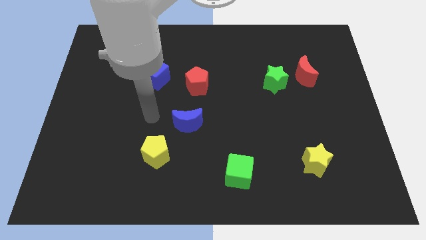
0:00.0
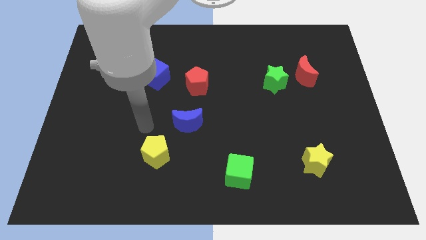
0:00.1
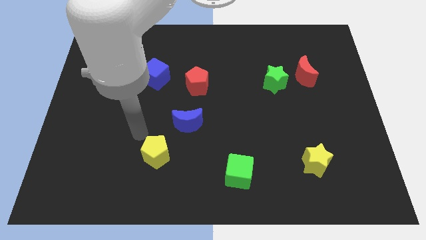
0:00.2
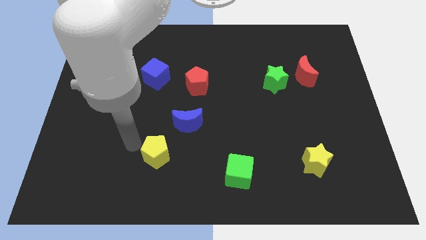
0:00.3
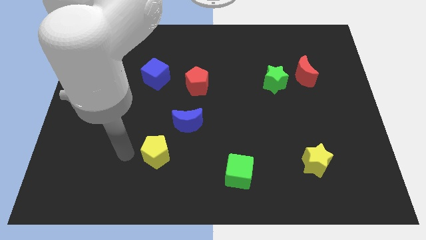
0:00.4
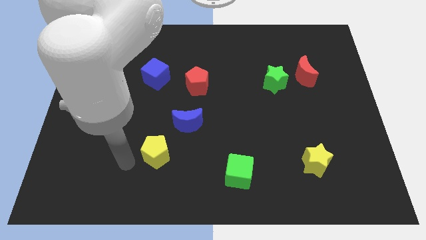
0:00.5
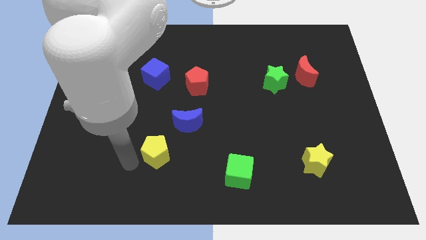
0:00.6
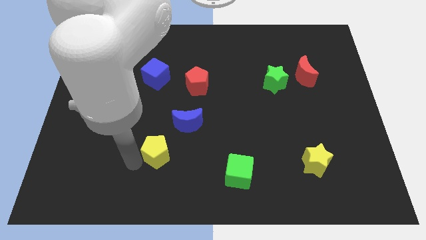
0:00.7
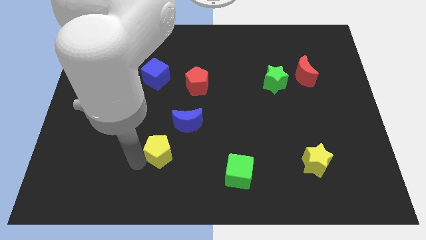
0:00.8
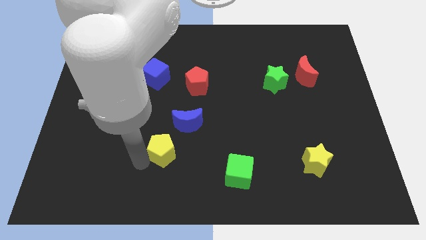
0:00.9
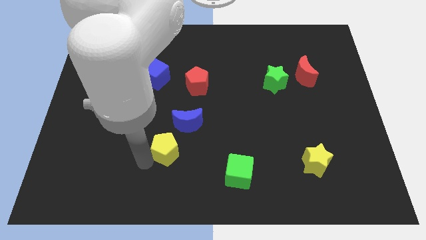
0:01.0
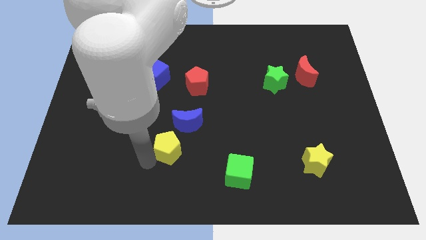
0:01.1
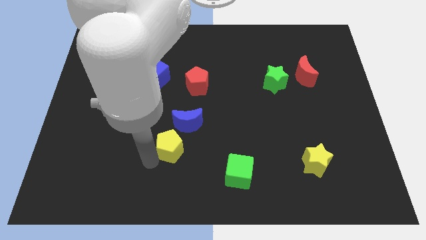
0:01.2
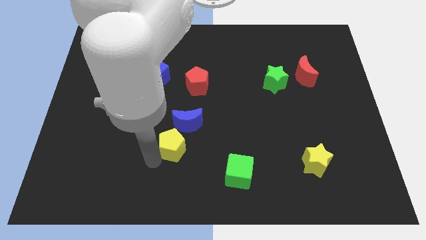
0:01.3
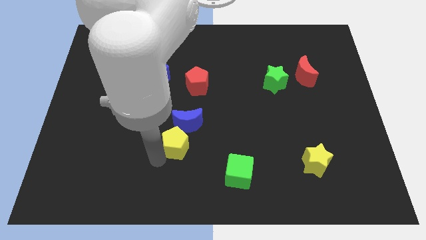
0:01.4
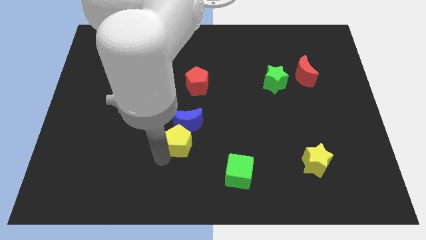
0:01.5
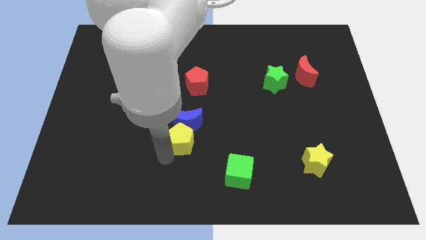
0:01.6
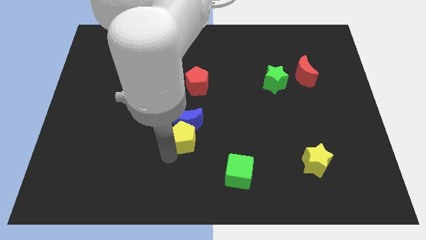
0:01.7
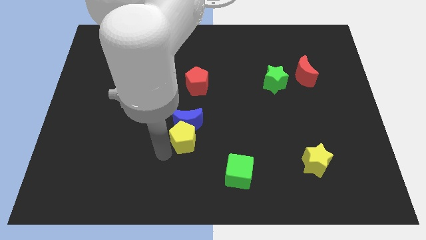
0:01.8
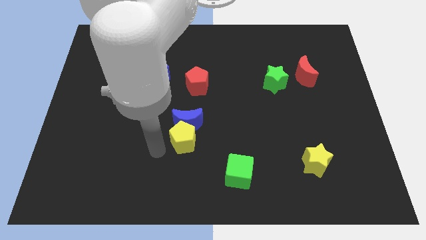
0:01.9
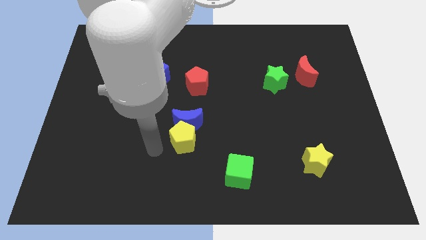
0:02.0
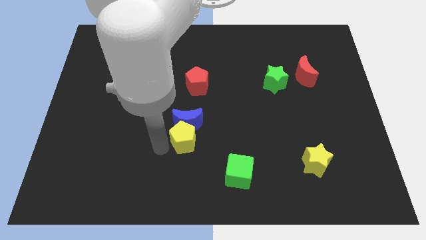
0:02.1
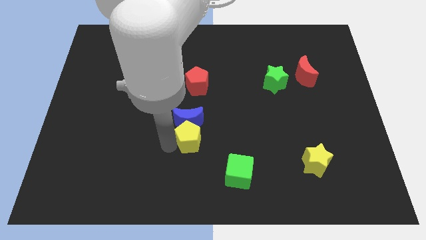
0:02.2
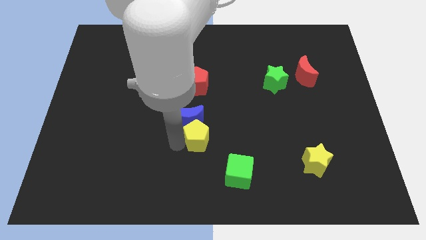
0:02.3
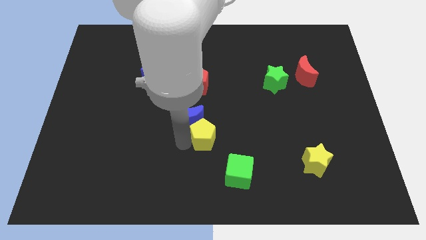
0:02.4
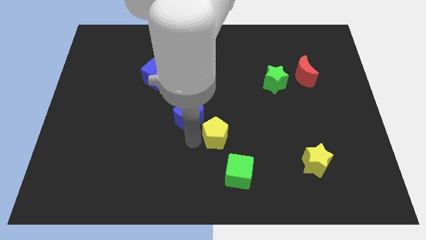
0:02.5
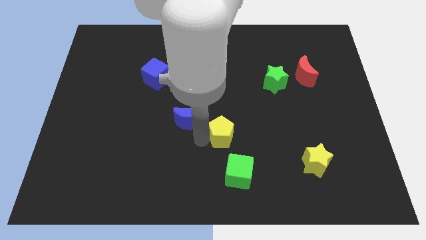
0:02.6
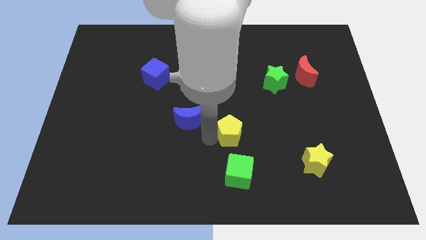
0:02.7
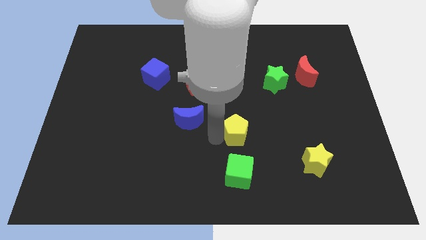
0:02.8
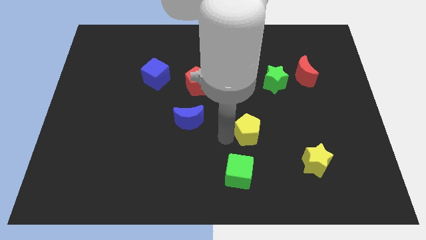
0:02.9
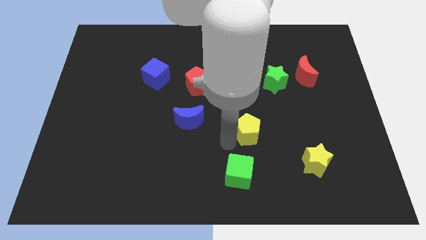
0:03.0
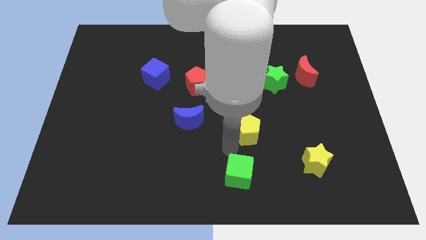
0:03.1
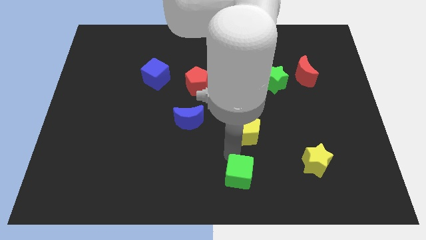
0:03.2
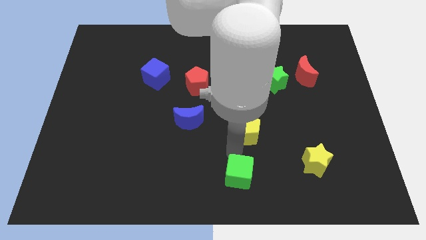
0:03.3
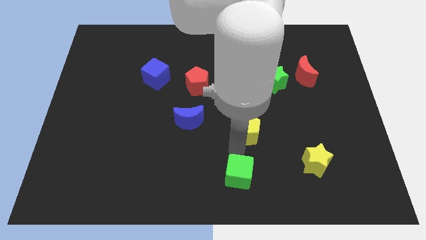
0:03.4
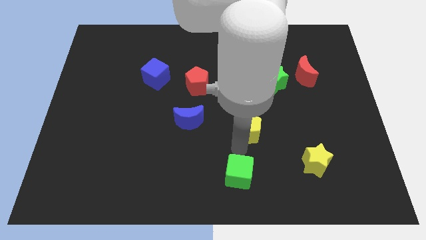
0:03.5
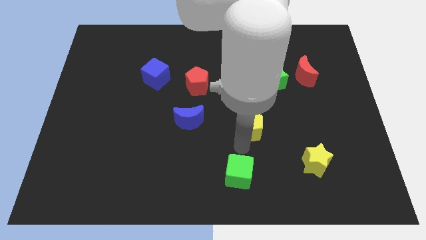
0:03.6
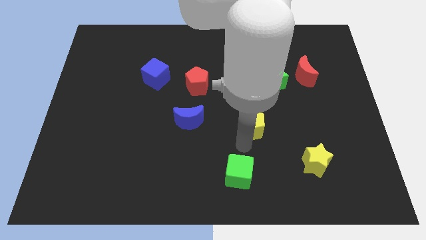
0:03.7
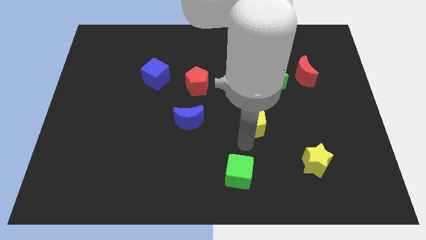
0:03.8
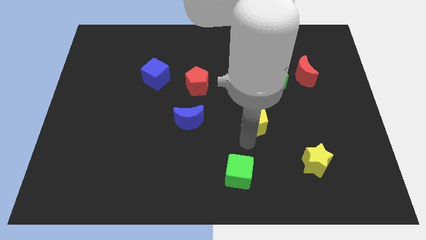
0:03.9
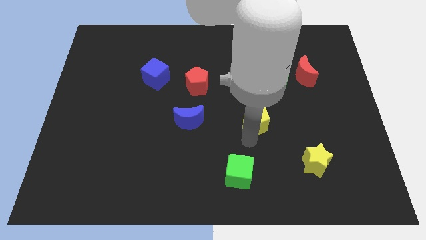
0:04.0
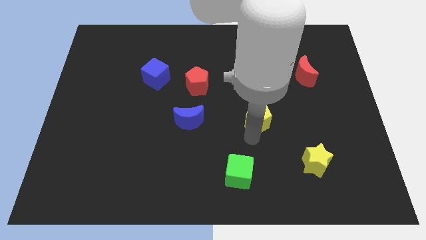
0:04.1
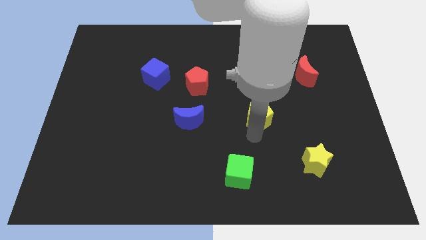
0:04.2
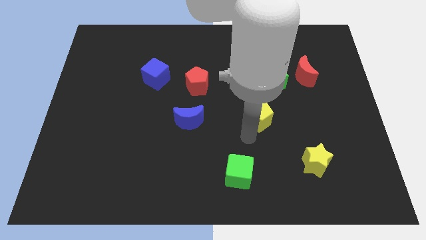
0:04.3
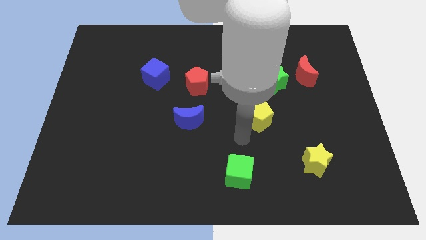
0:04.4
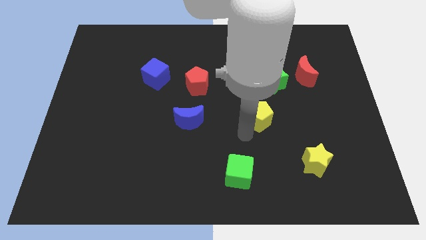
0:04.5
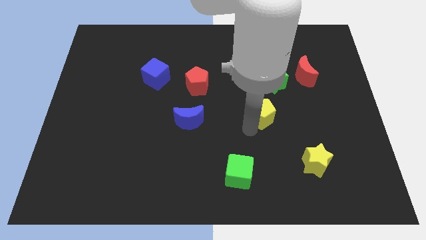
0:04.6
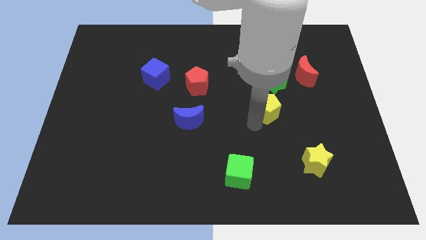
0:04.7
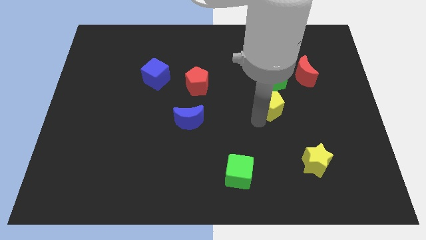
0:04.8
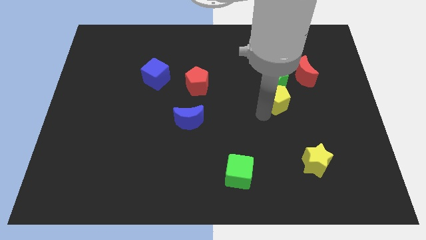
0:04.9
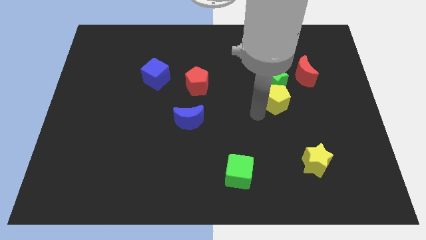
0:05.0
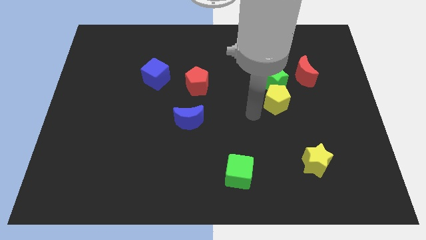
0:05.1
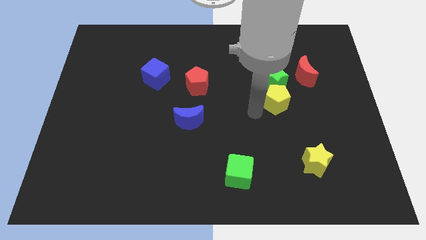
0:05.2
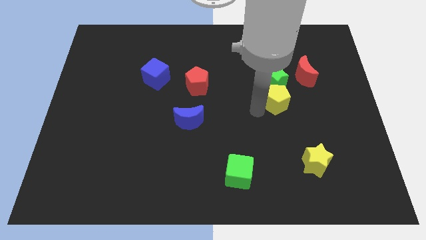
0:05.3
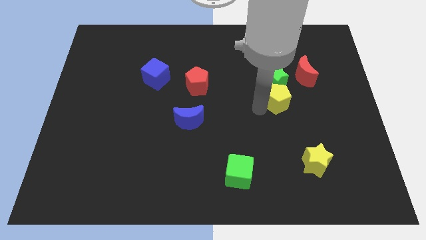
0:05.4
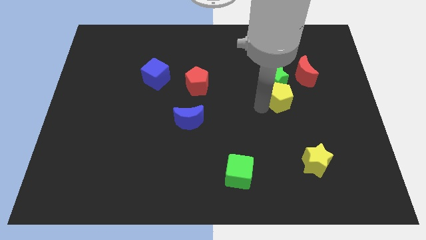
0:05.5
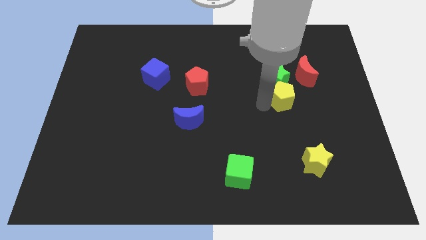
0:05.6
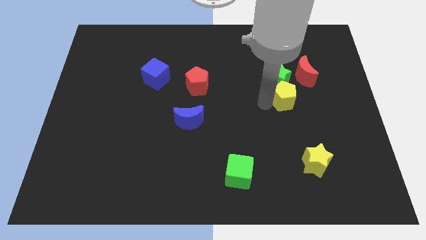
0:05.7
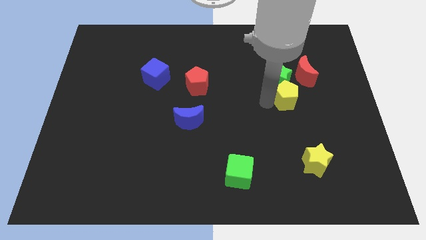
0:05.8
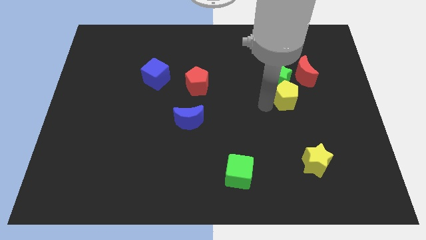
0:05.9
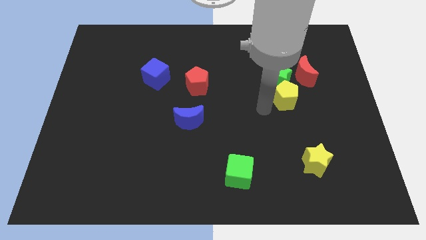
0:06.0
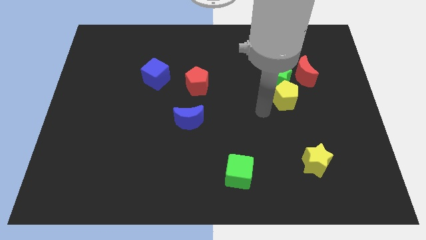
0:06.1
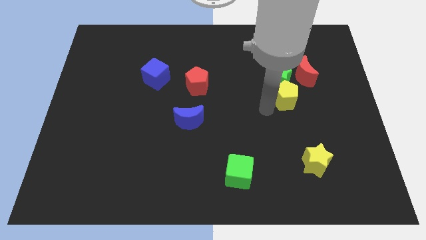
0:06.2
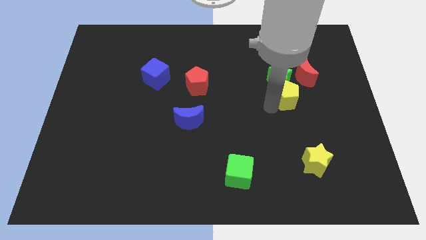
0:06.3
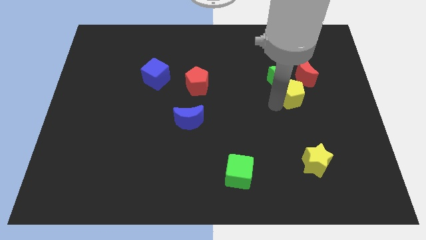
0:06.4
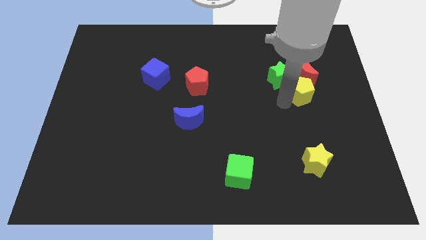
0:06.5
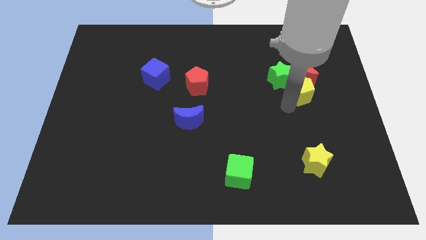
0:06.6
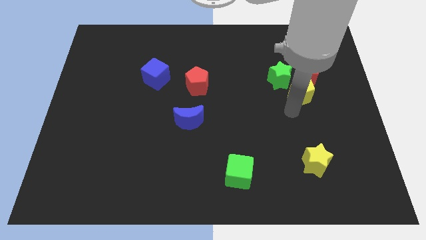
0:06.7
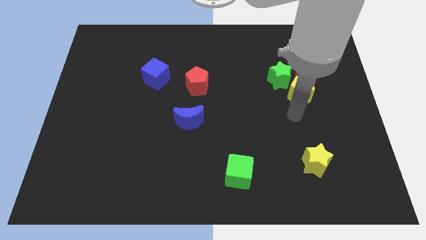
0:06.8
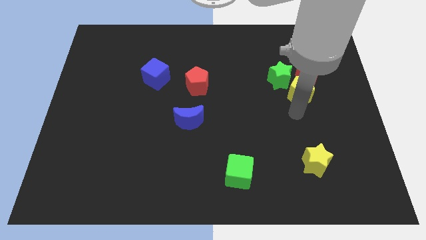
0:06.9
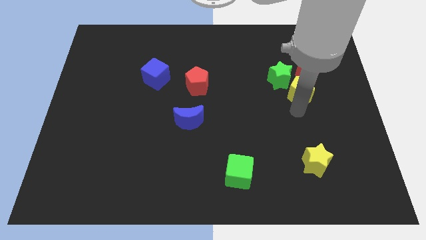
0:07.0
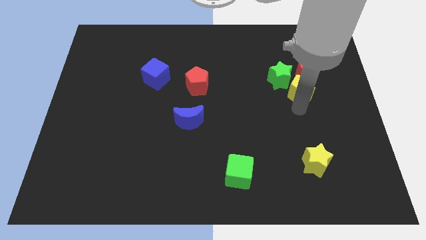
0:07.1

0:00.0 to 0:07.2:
slide the yellow pentagon next to the red moon
